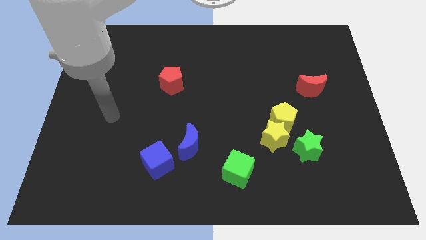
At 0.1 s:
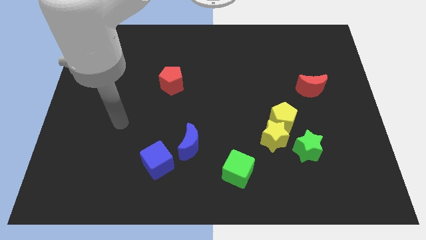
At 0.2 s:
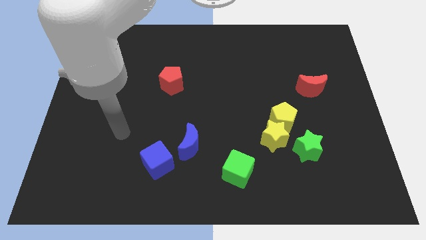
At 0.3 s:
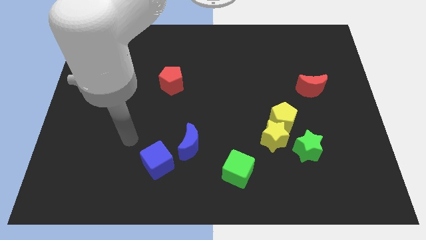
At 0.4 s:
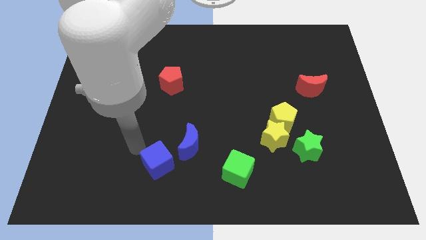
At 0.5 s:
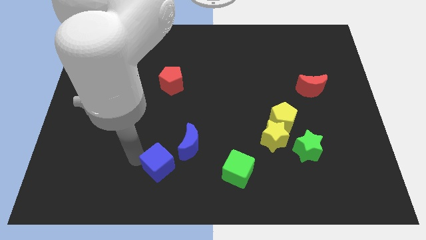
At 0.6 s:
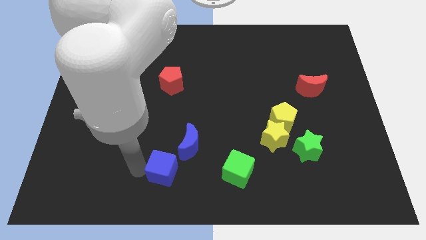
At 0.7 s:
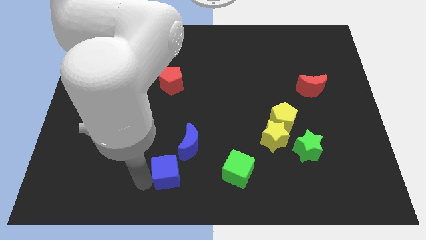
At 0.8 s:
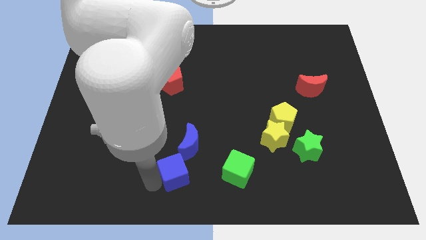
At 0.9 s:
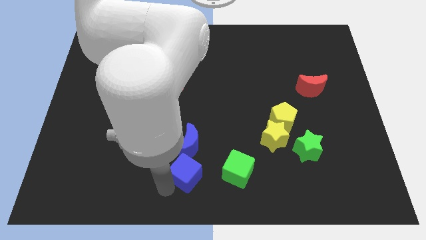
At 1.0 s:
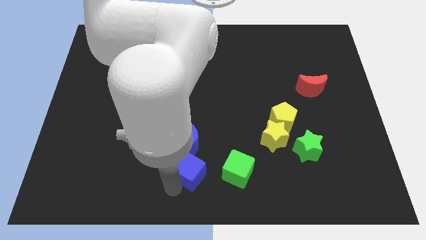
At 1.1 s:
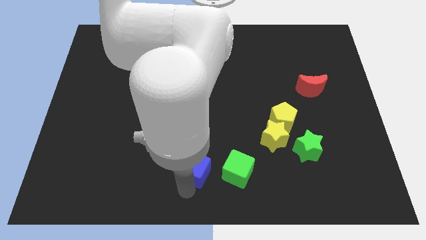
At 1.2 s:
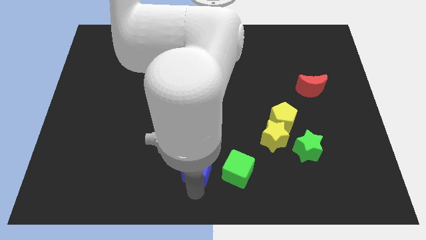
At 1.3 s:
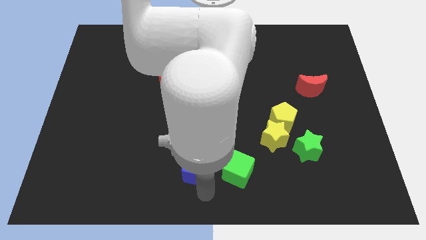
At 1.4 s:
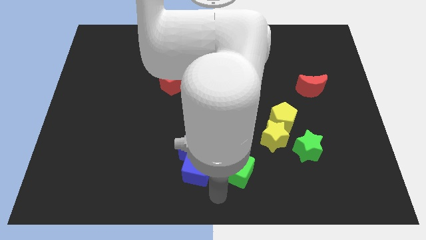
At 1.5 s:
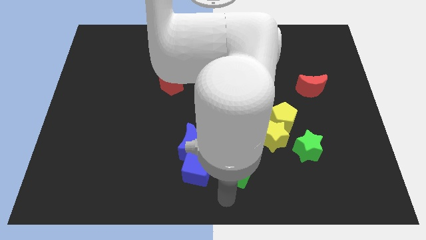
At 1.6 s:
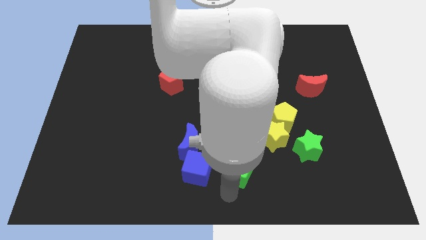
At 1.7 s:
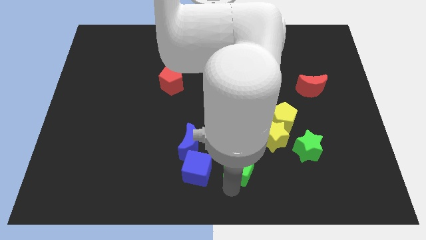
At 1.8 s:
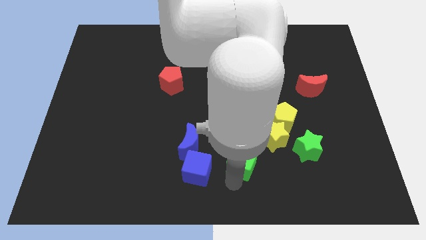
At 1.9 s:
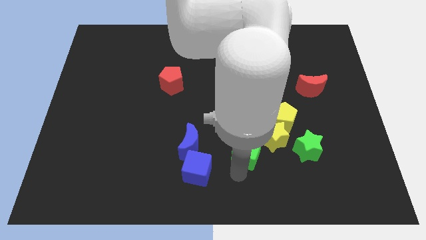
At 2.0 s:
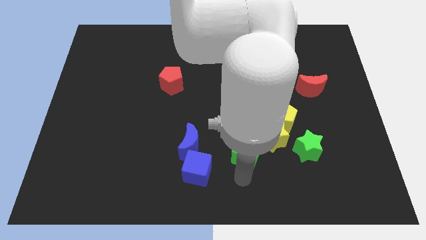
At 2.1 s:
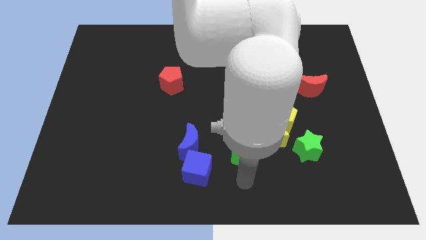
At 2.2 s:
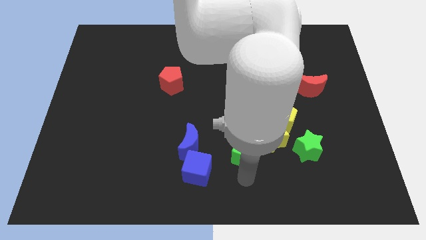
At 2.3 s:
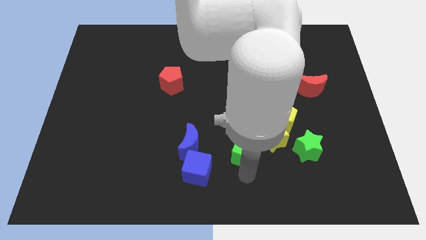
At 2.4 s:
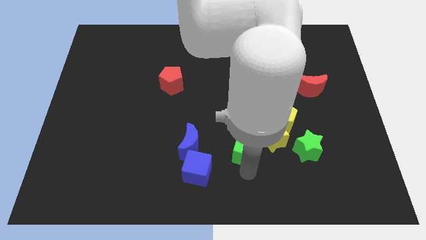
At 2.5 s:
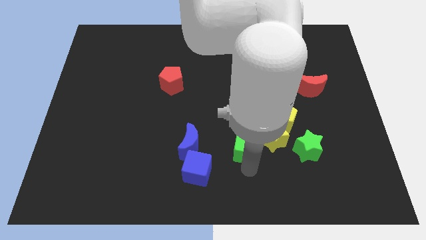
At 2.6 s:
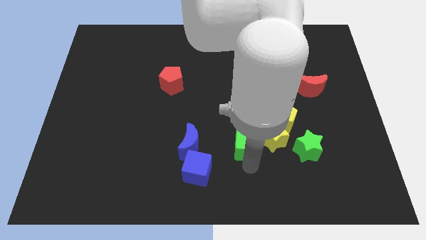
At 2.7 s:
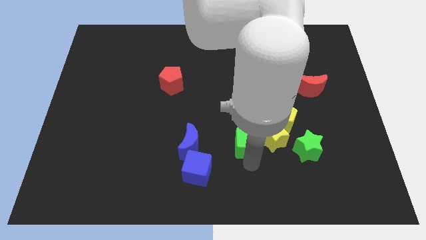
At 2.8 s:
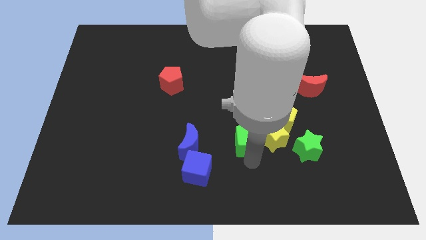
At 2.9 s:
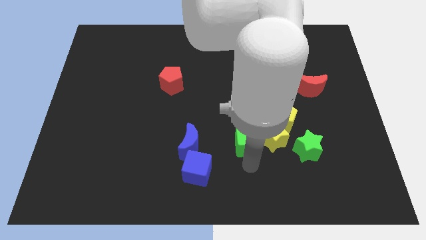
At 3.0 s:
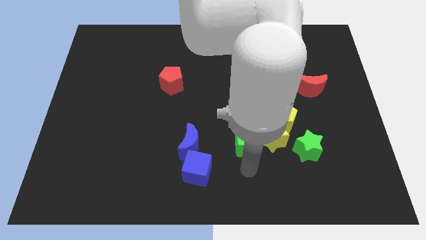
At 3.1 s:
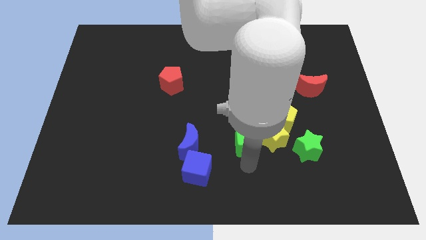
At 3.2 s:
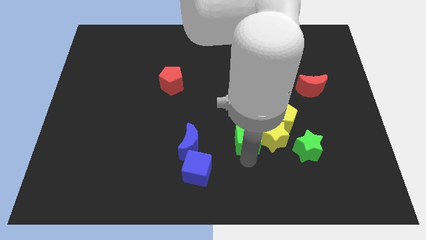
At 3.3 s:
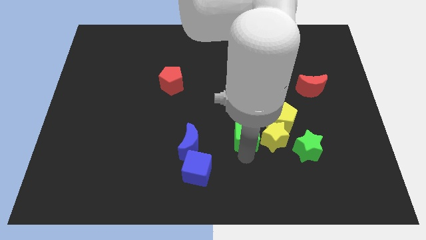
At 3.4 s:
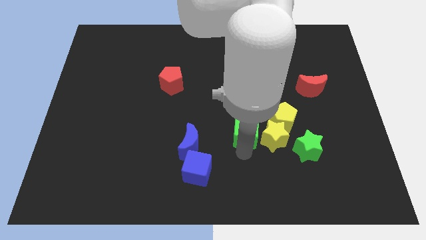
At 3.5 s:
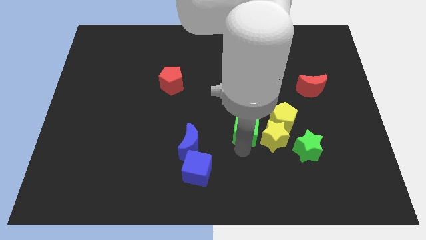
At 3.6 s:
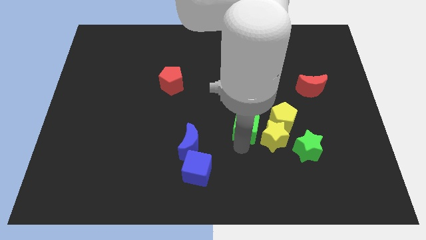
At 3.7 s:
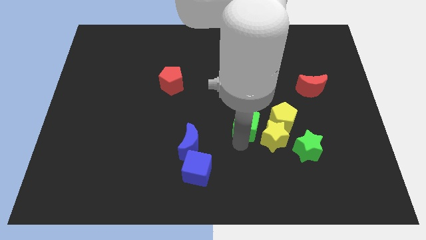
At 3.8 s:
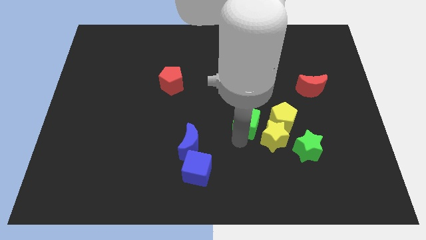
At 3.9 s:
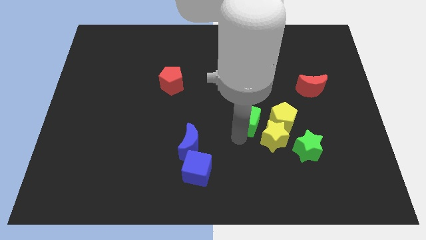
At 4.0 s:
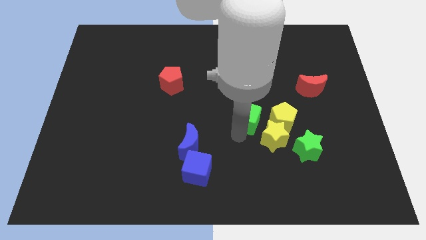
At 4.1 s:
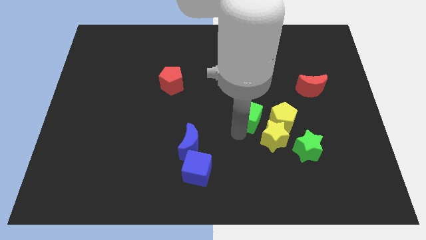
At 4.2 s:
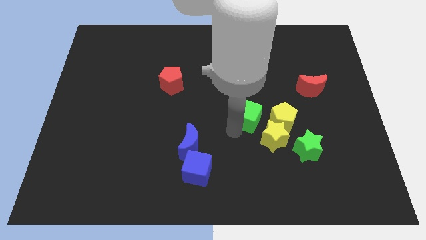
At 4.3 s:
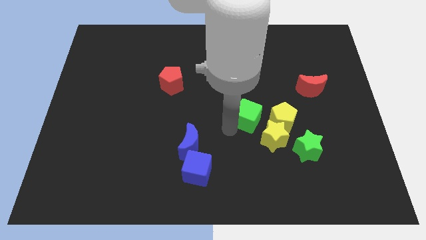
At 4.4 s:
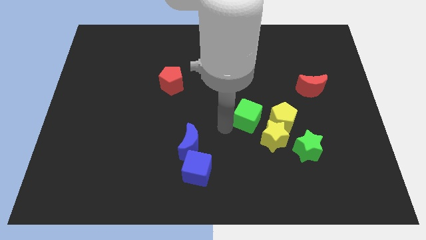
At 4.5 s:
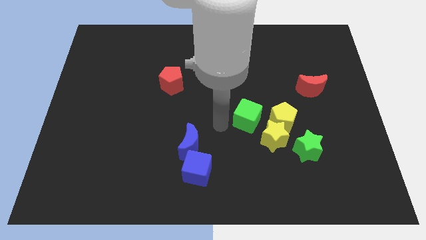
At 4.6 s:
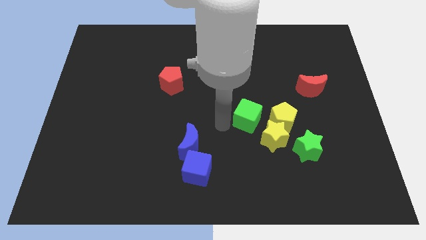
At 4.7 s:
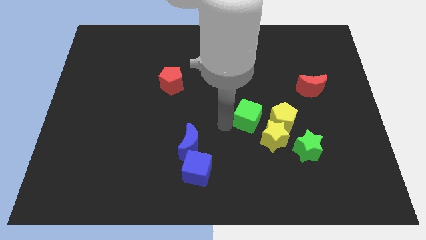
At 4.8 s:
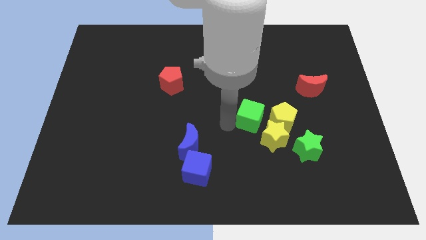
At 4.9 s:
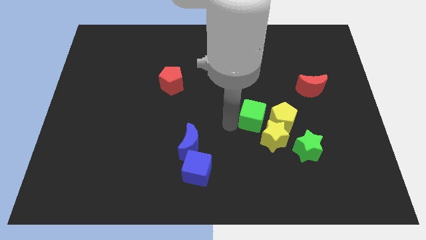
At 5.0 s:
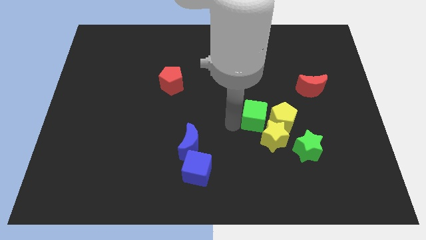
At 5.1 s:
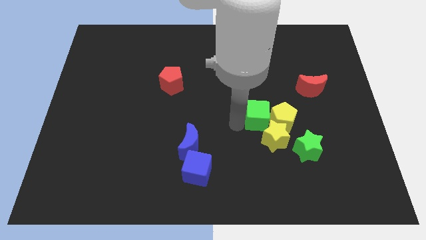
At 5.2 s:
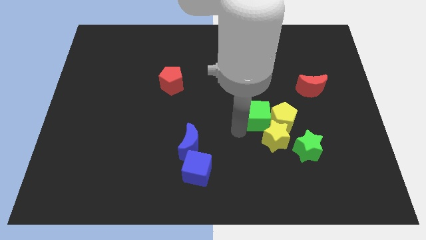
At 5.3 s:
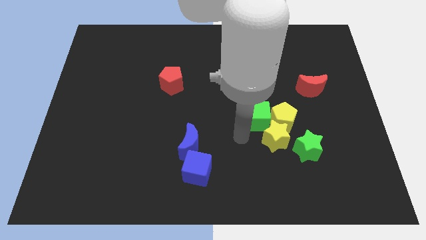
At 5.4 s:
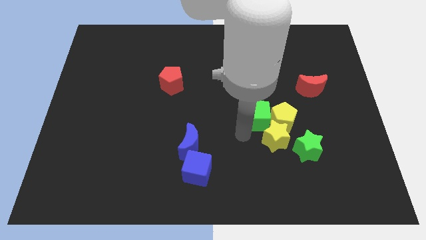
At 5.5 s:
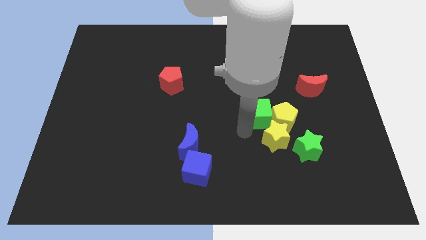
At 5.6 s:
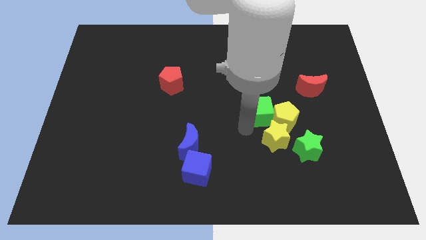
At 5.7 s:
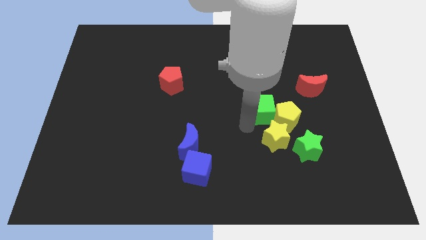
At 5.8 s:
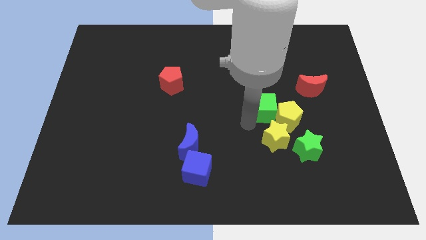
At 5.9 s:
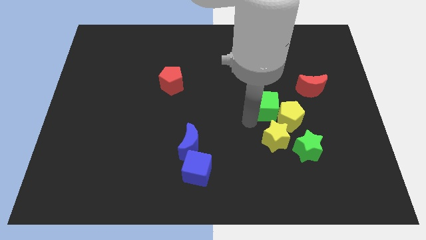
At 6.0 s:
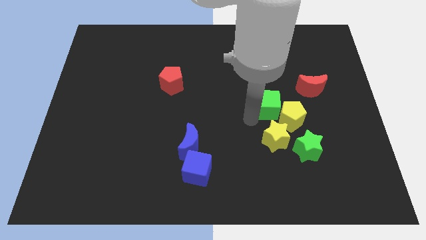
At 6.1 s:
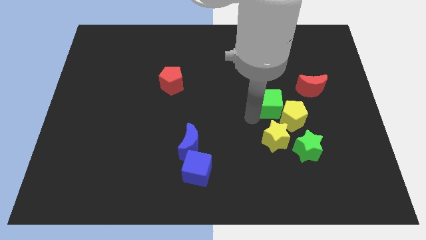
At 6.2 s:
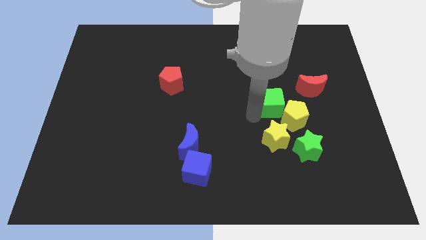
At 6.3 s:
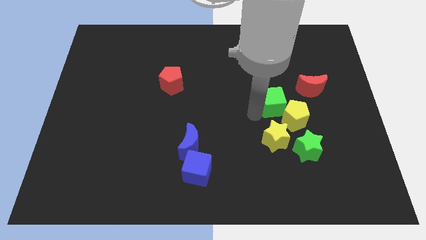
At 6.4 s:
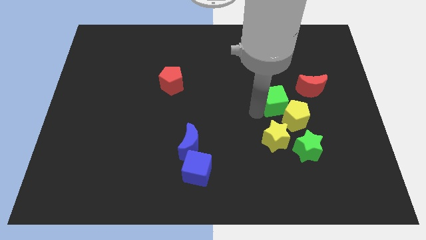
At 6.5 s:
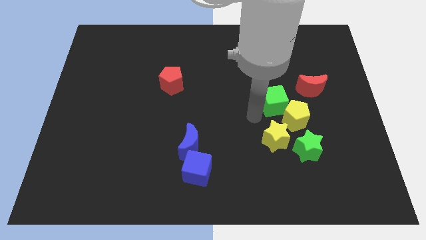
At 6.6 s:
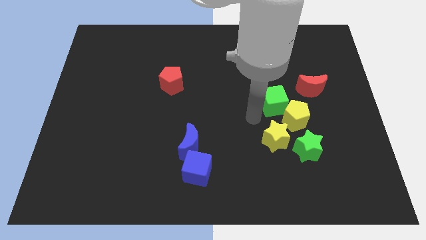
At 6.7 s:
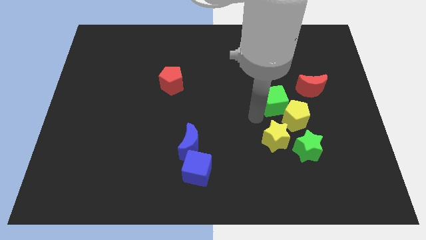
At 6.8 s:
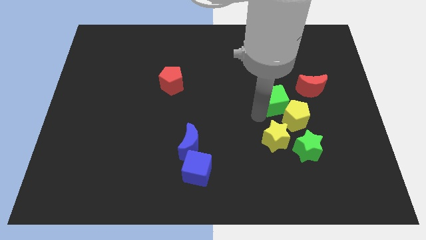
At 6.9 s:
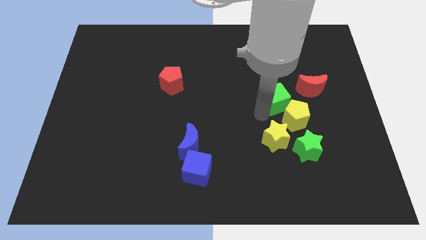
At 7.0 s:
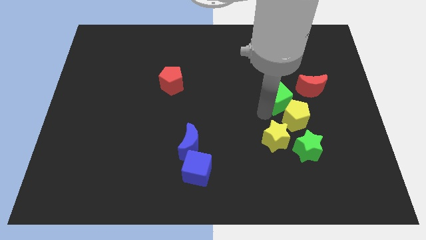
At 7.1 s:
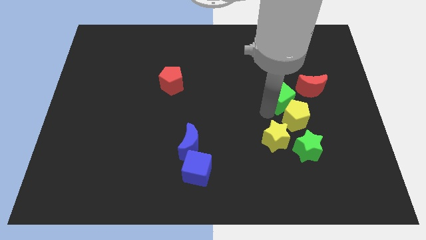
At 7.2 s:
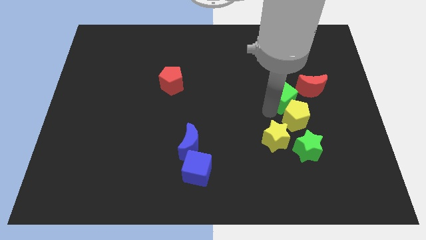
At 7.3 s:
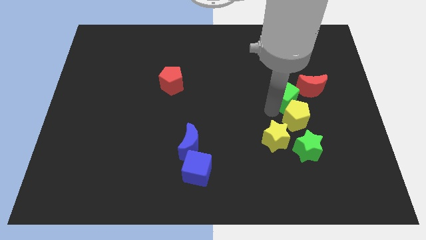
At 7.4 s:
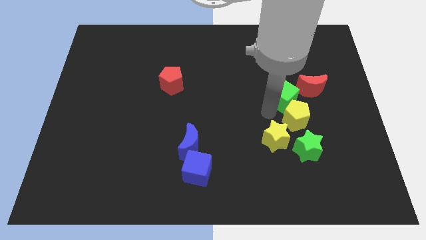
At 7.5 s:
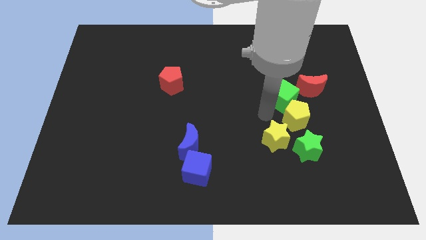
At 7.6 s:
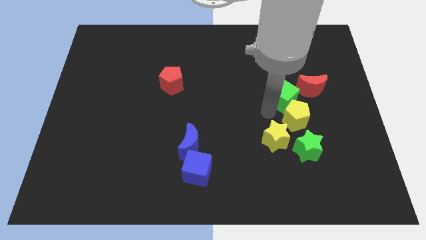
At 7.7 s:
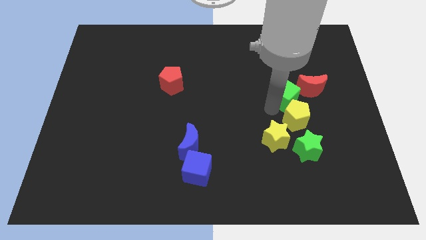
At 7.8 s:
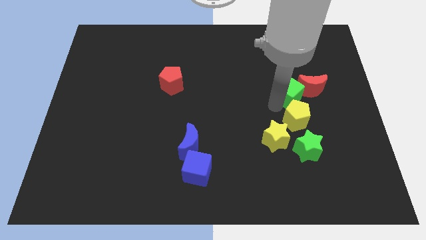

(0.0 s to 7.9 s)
move the green cube close to the red moon
